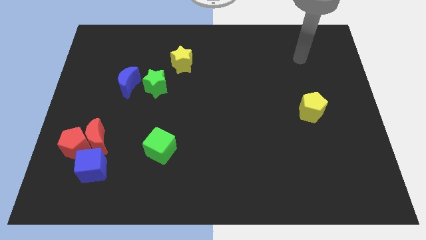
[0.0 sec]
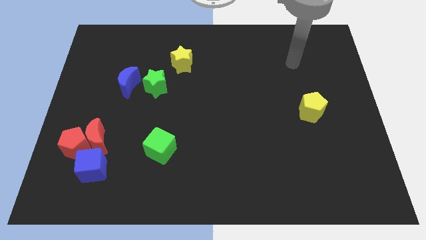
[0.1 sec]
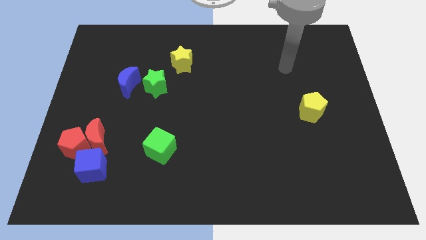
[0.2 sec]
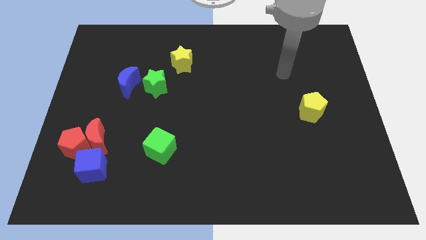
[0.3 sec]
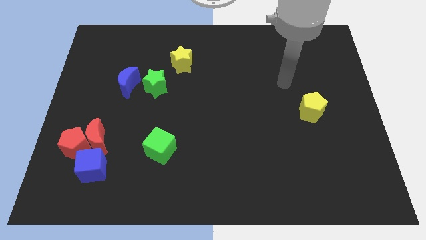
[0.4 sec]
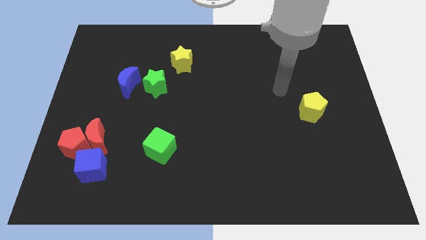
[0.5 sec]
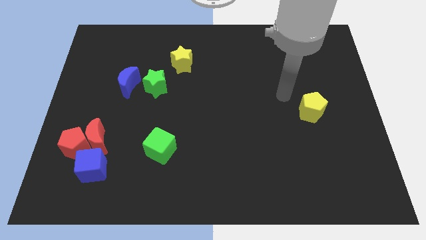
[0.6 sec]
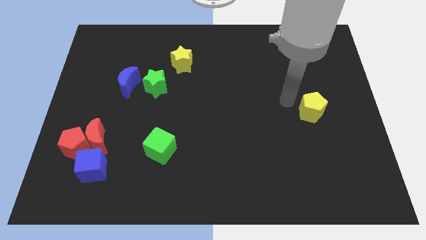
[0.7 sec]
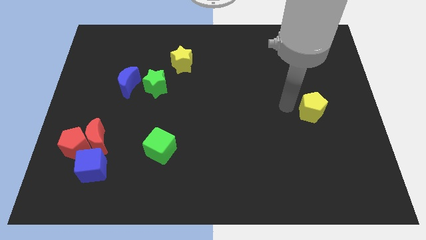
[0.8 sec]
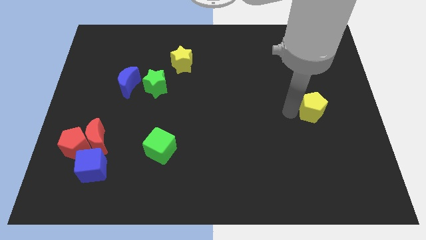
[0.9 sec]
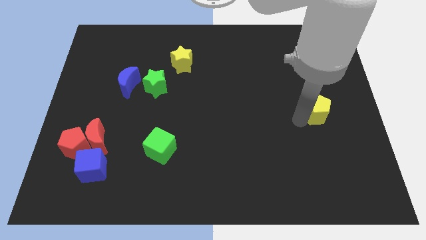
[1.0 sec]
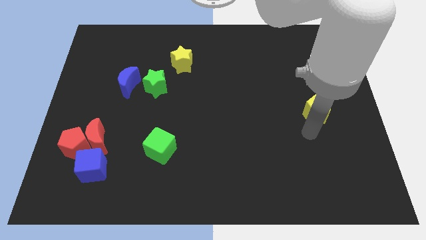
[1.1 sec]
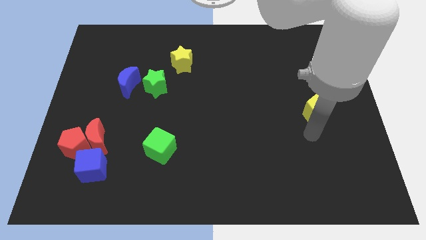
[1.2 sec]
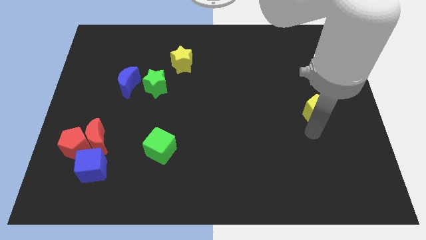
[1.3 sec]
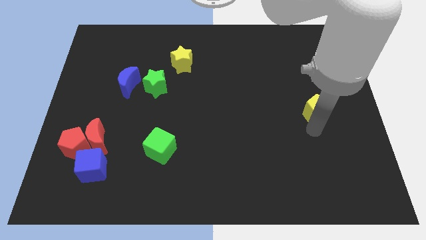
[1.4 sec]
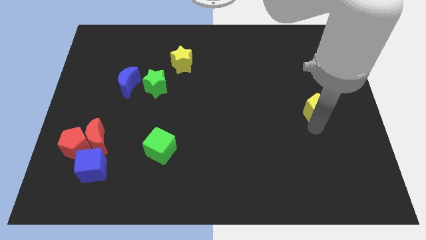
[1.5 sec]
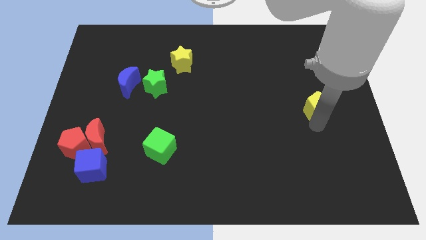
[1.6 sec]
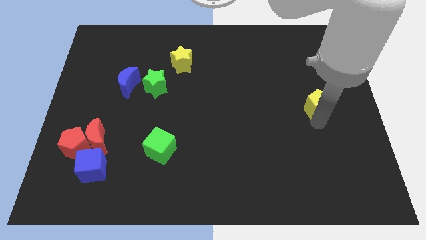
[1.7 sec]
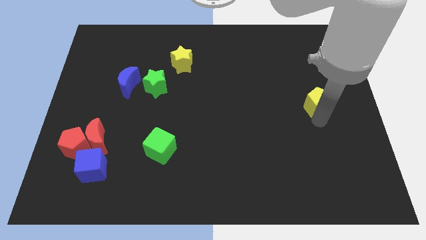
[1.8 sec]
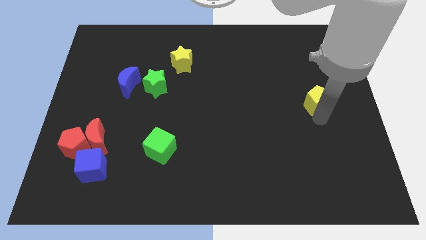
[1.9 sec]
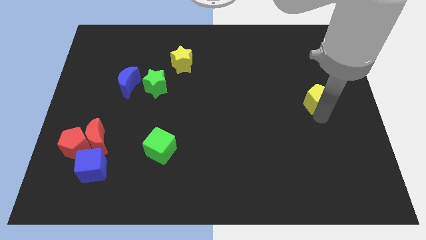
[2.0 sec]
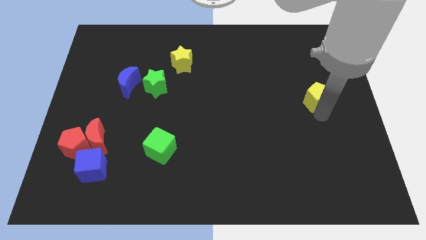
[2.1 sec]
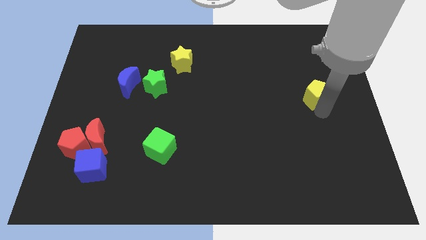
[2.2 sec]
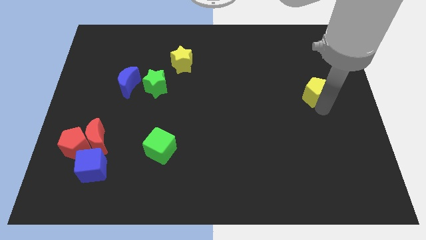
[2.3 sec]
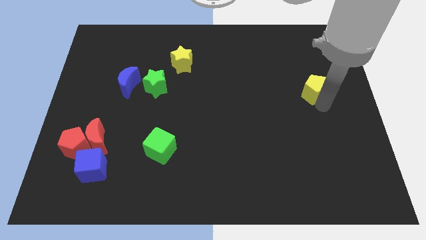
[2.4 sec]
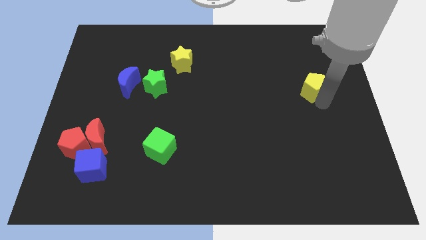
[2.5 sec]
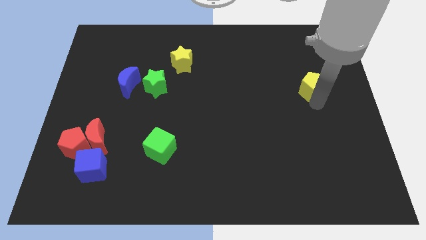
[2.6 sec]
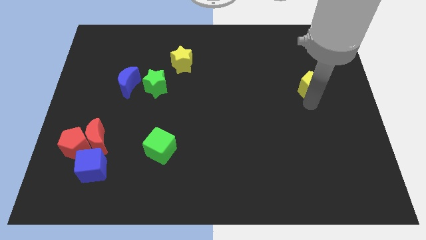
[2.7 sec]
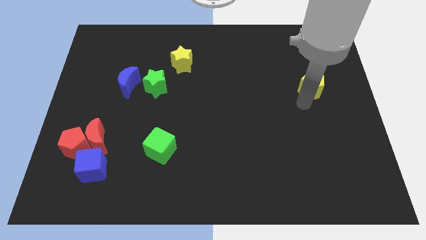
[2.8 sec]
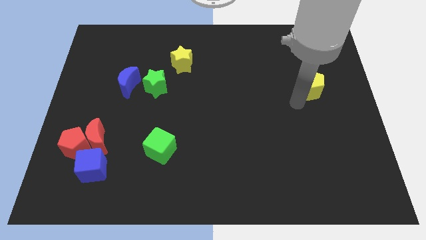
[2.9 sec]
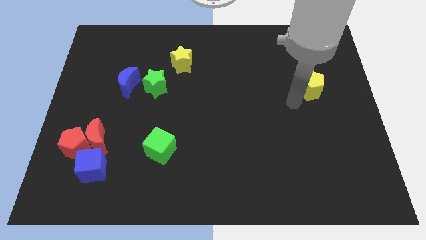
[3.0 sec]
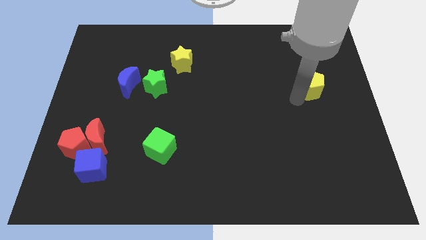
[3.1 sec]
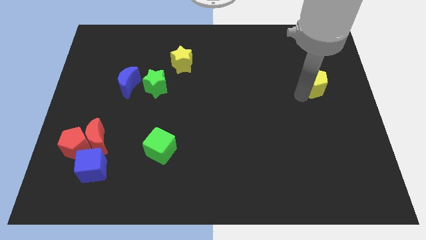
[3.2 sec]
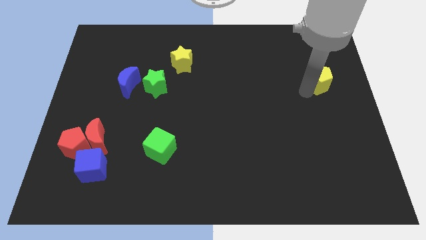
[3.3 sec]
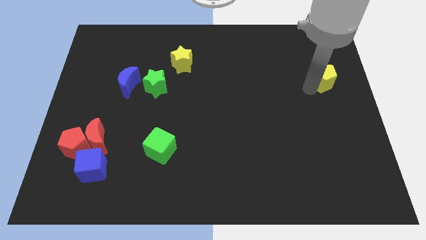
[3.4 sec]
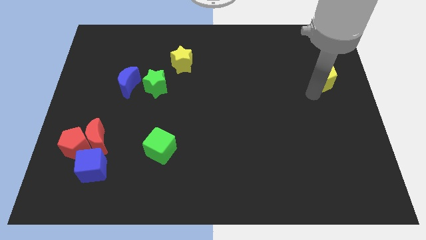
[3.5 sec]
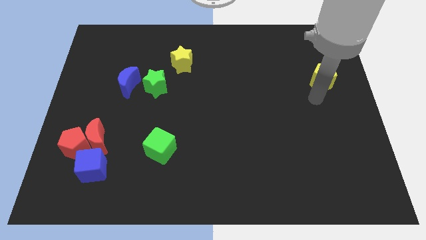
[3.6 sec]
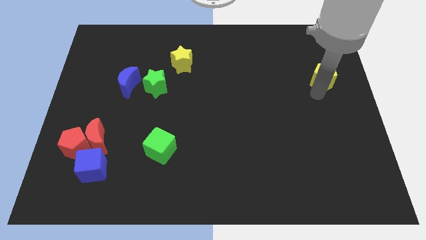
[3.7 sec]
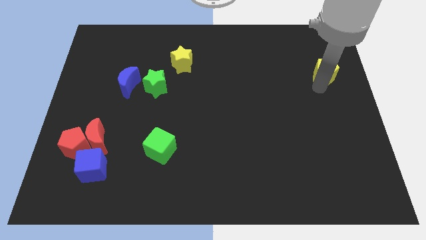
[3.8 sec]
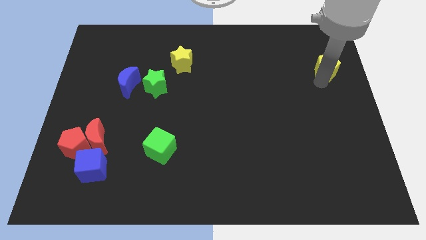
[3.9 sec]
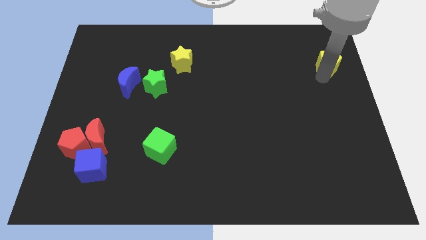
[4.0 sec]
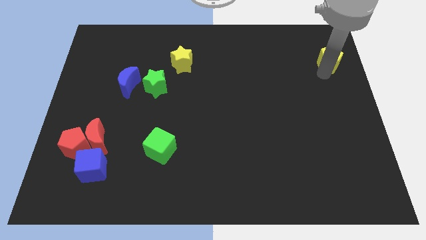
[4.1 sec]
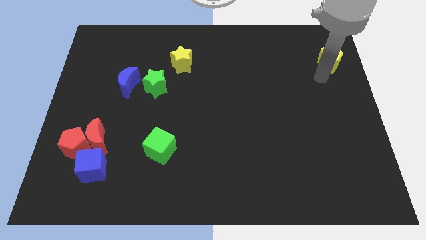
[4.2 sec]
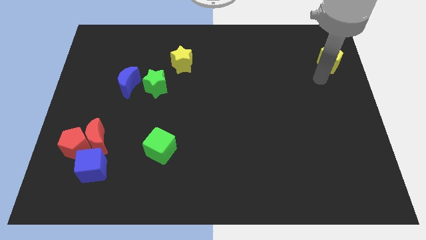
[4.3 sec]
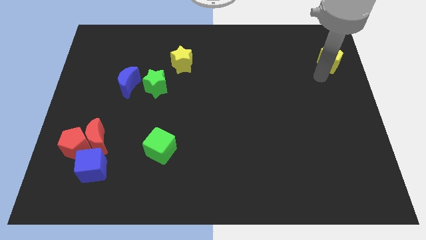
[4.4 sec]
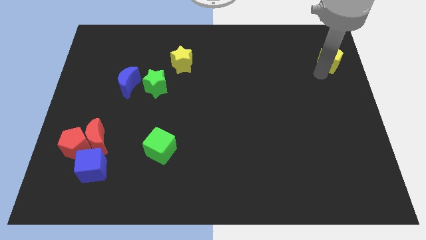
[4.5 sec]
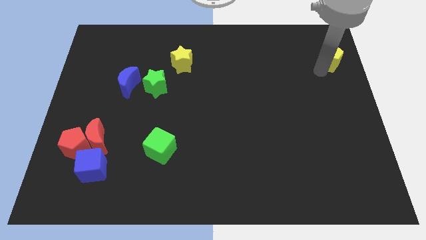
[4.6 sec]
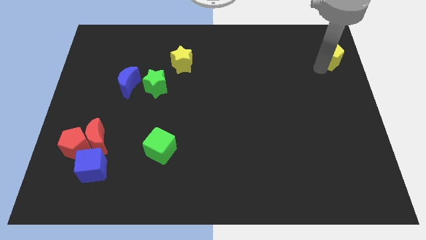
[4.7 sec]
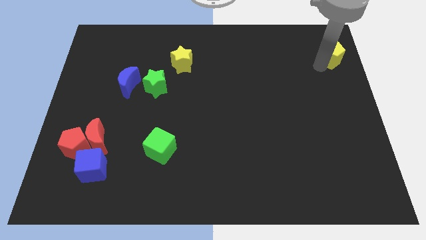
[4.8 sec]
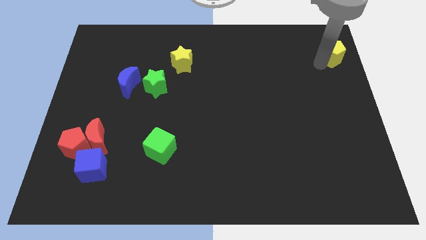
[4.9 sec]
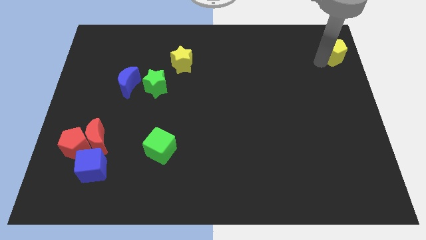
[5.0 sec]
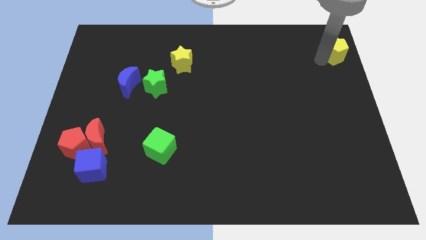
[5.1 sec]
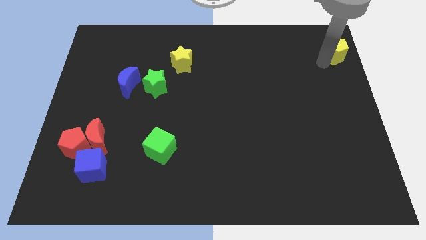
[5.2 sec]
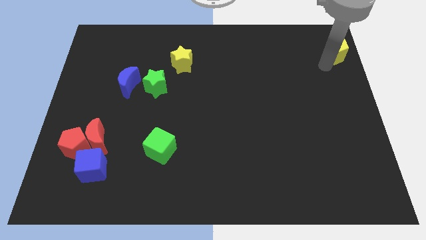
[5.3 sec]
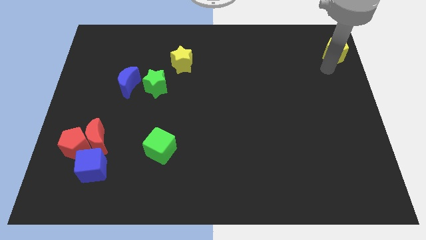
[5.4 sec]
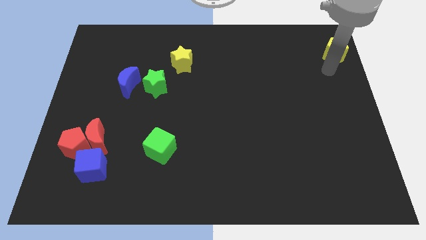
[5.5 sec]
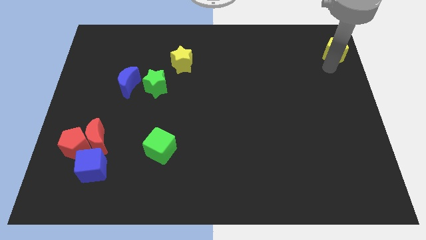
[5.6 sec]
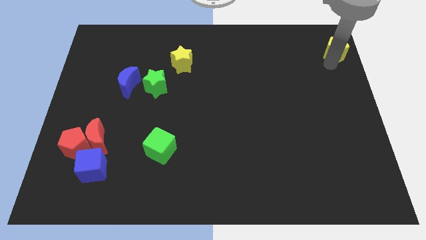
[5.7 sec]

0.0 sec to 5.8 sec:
put the yellow pentagon to the top right of the board

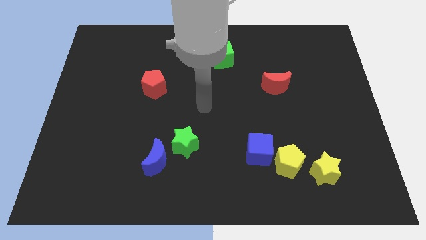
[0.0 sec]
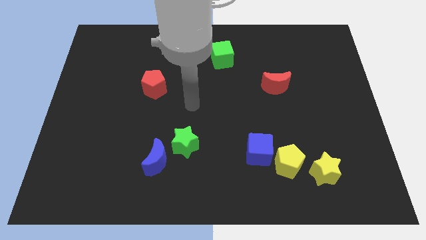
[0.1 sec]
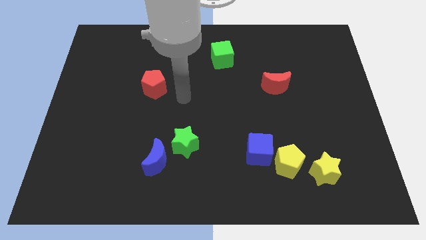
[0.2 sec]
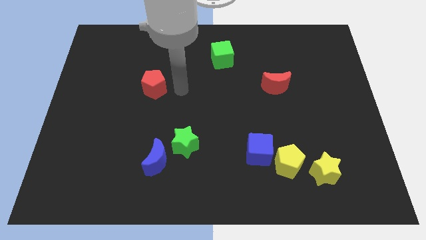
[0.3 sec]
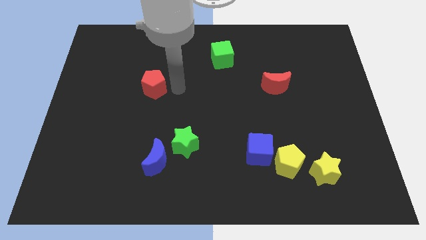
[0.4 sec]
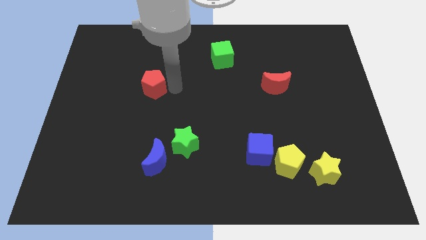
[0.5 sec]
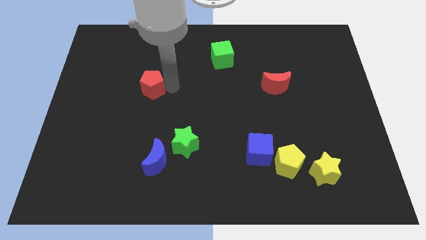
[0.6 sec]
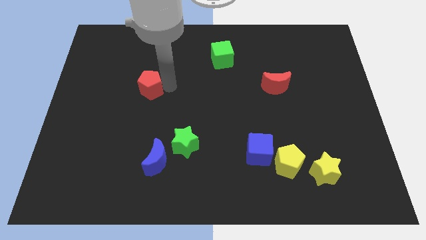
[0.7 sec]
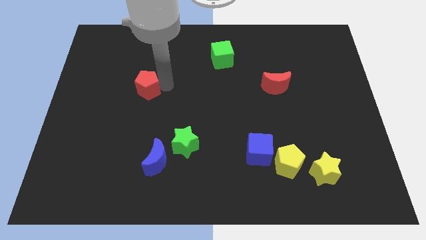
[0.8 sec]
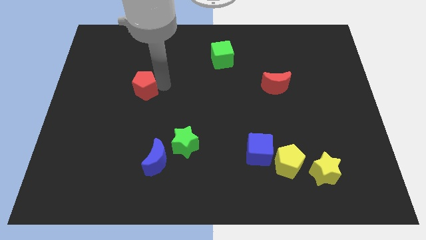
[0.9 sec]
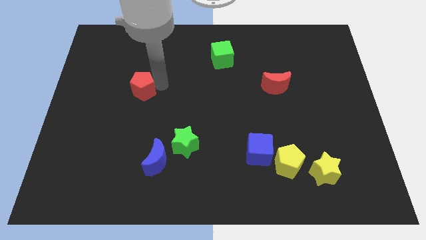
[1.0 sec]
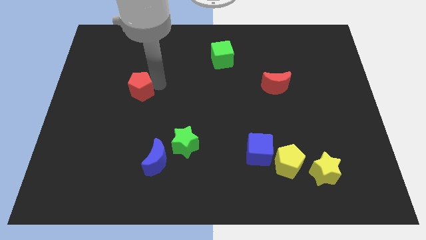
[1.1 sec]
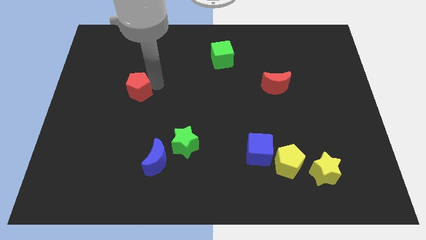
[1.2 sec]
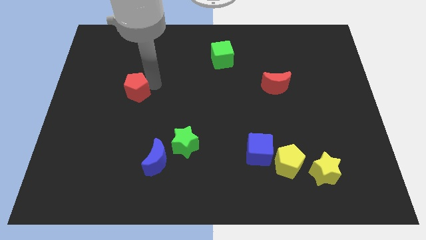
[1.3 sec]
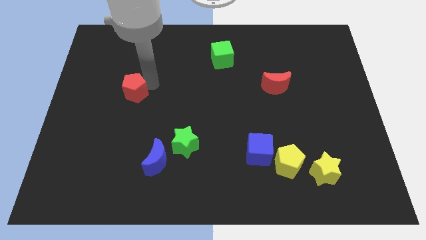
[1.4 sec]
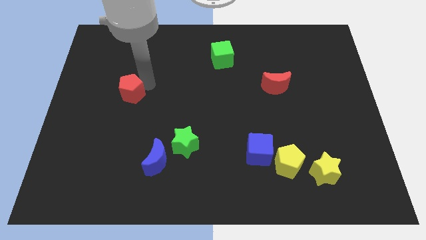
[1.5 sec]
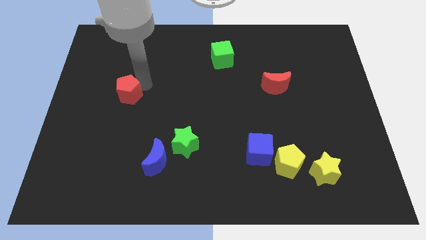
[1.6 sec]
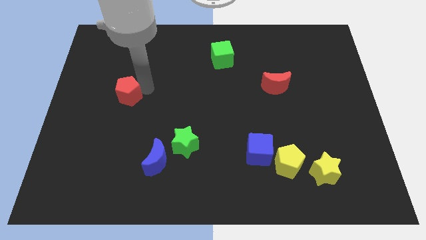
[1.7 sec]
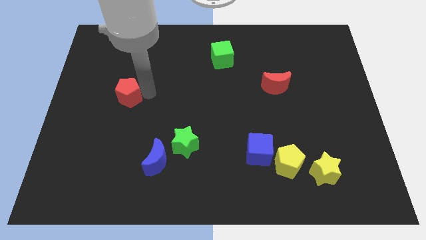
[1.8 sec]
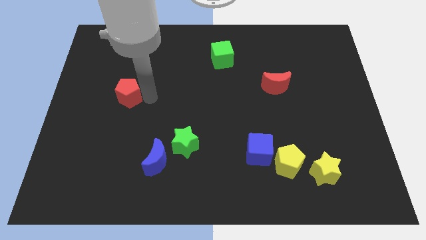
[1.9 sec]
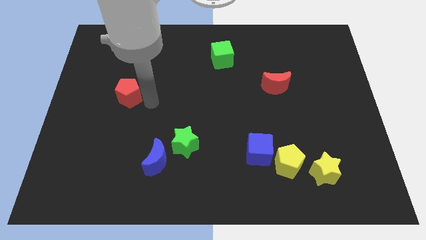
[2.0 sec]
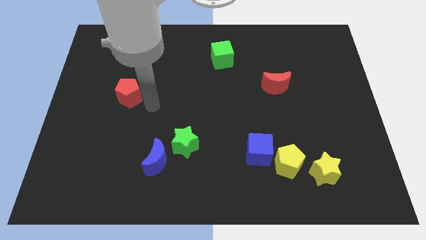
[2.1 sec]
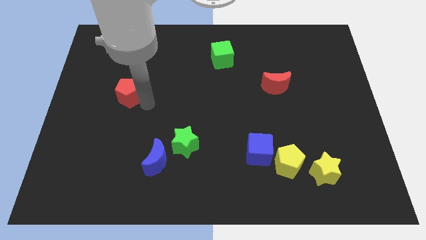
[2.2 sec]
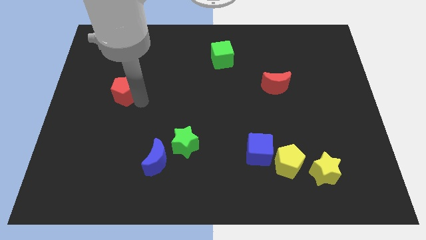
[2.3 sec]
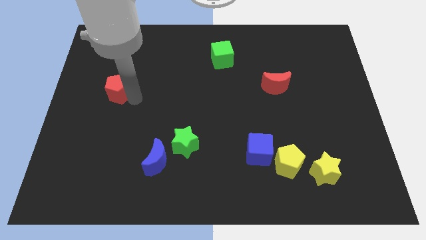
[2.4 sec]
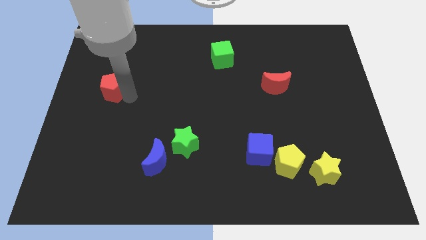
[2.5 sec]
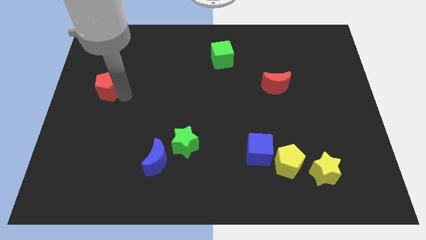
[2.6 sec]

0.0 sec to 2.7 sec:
push the red pentagon to the left side of the board
